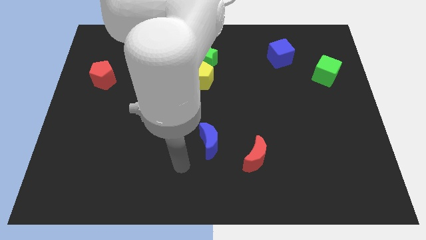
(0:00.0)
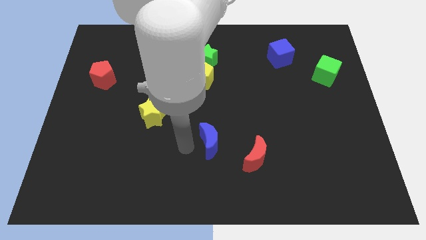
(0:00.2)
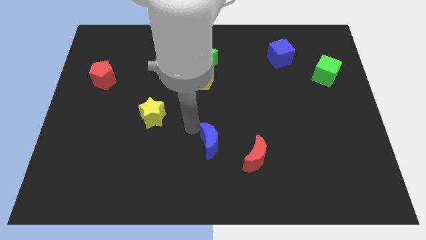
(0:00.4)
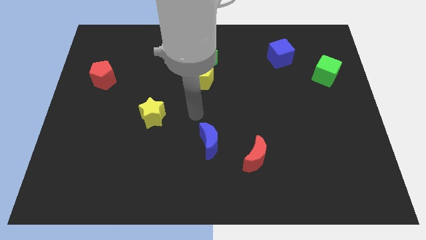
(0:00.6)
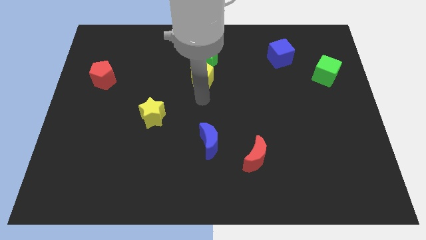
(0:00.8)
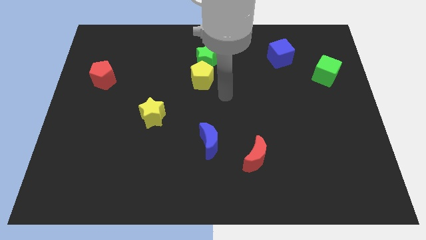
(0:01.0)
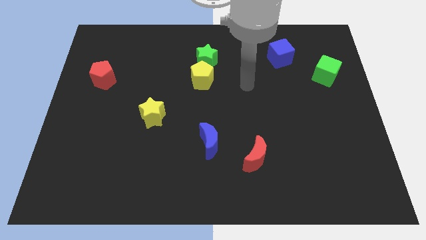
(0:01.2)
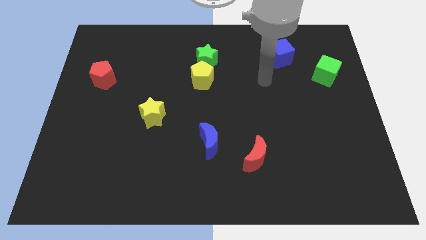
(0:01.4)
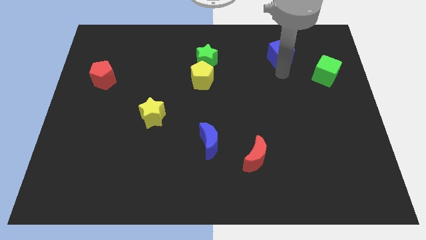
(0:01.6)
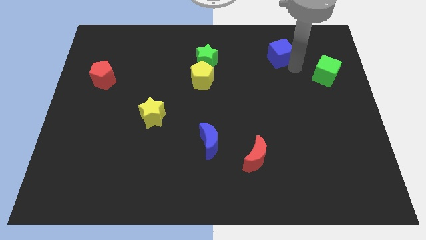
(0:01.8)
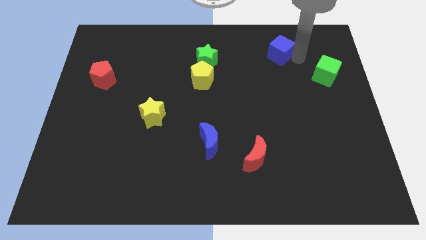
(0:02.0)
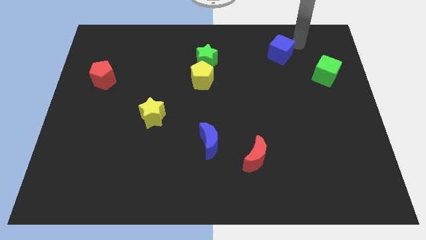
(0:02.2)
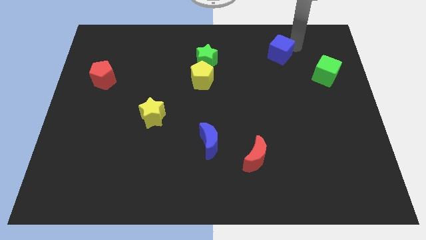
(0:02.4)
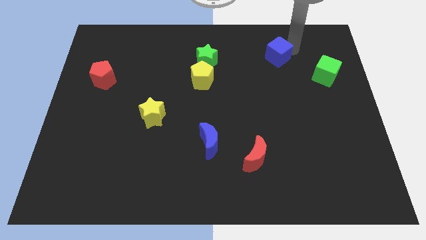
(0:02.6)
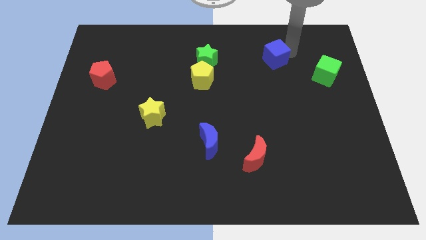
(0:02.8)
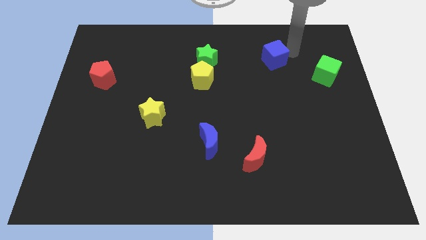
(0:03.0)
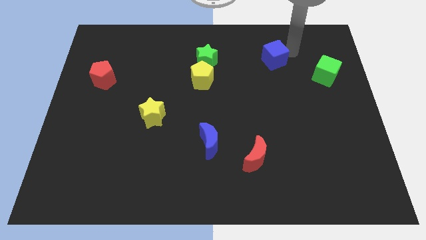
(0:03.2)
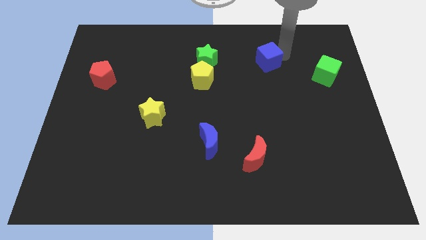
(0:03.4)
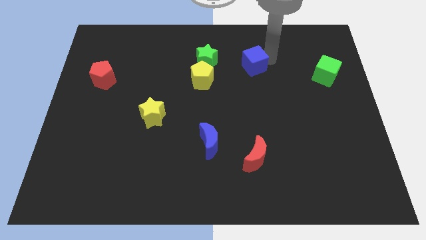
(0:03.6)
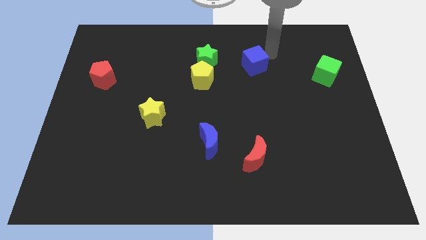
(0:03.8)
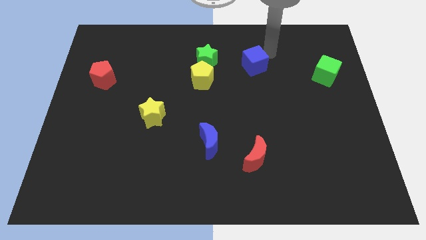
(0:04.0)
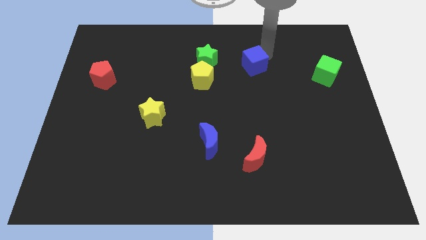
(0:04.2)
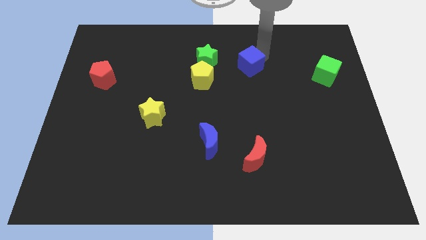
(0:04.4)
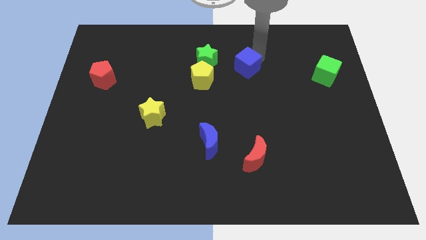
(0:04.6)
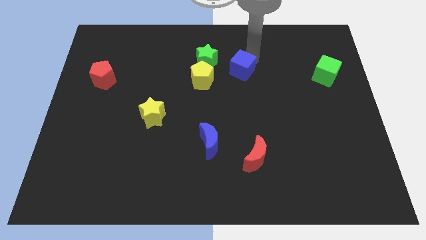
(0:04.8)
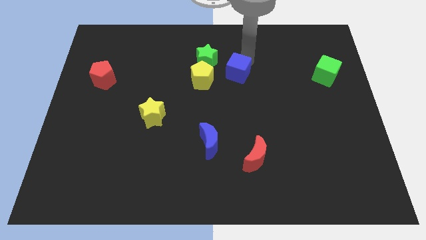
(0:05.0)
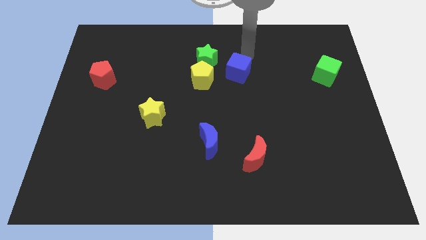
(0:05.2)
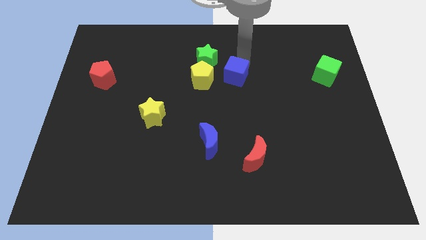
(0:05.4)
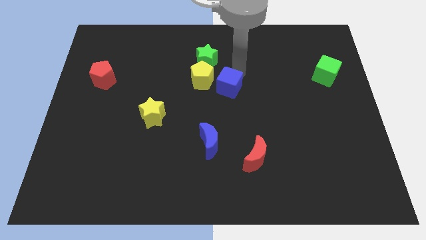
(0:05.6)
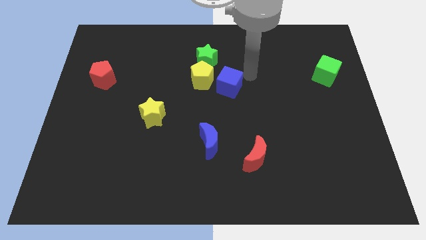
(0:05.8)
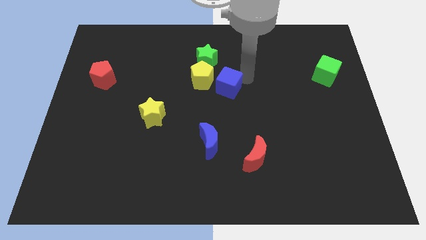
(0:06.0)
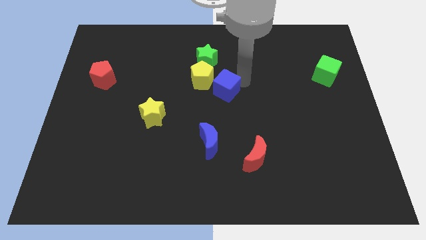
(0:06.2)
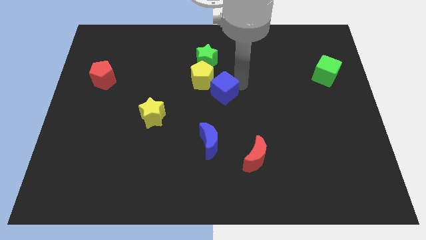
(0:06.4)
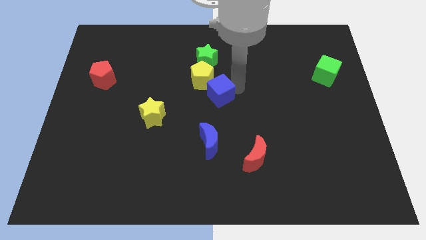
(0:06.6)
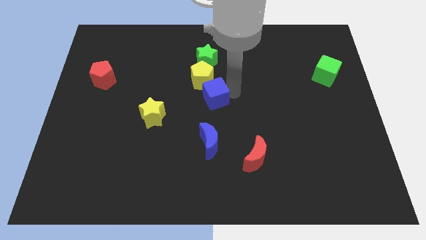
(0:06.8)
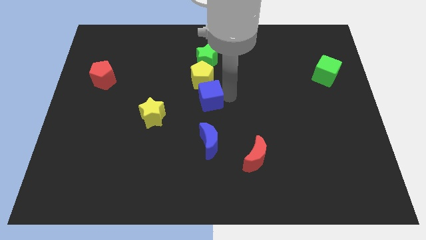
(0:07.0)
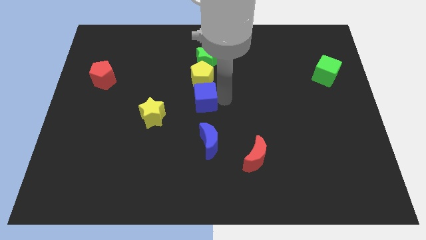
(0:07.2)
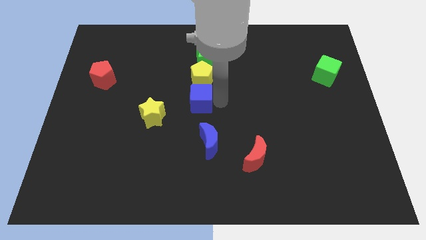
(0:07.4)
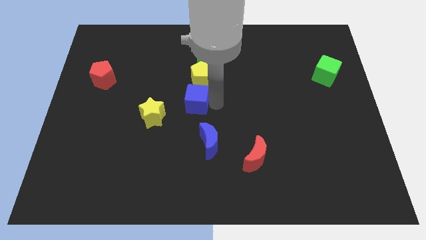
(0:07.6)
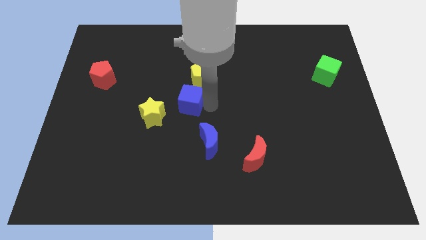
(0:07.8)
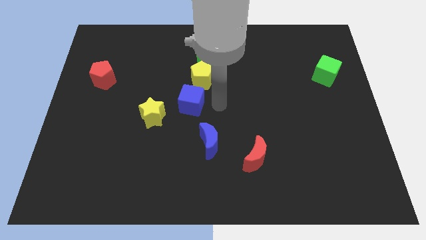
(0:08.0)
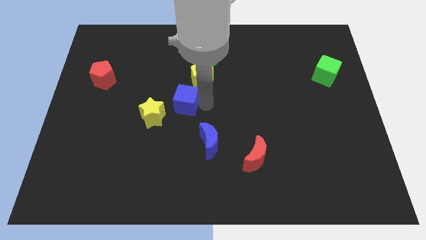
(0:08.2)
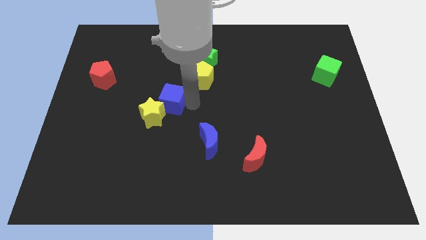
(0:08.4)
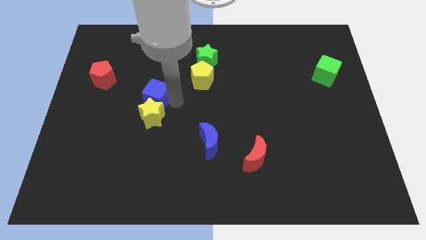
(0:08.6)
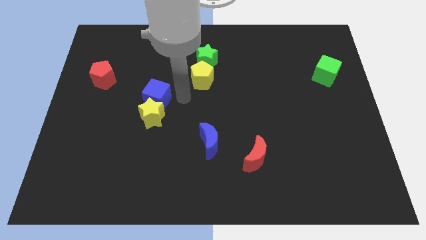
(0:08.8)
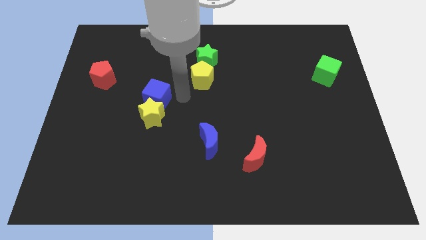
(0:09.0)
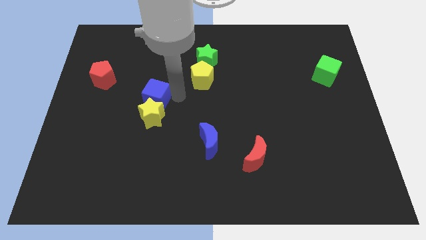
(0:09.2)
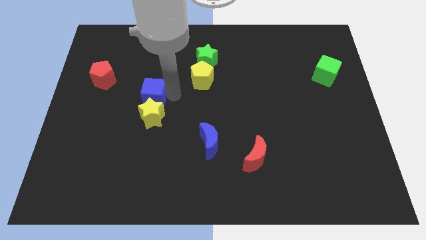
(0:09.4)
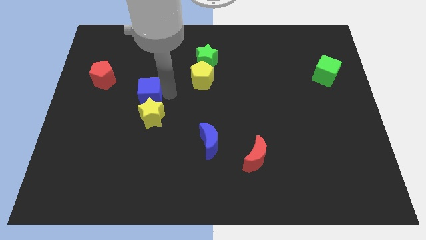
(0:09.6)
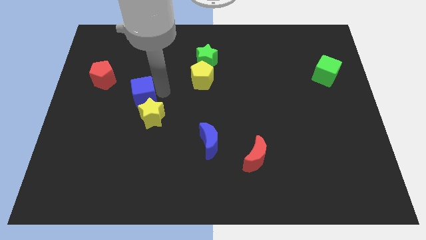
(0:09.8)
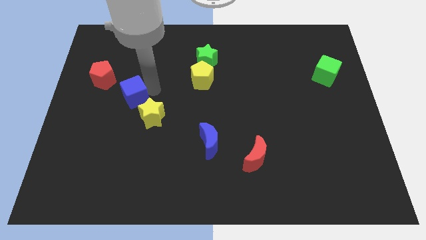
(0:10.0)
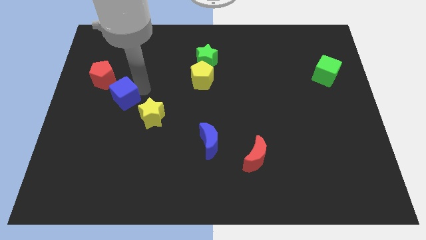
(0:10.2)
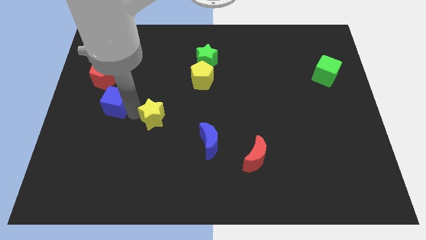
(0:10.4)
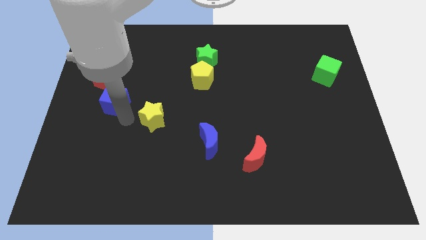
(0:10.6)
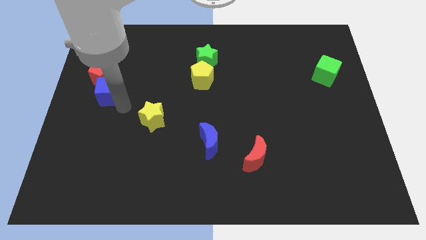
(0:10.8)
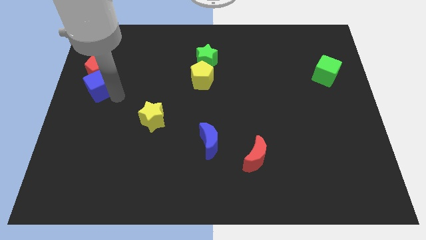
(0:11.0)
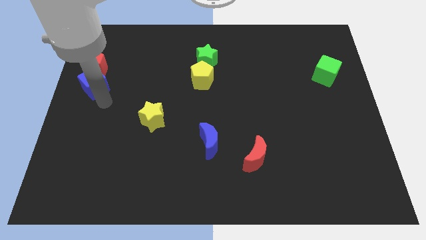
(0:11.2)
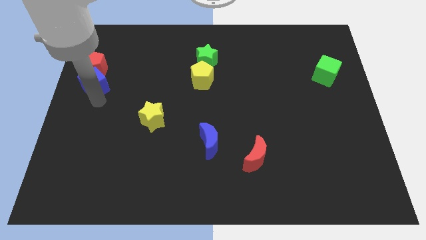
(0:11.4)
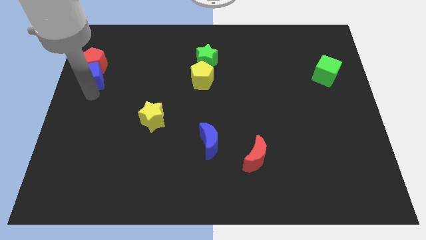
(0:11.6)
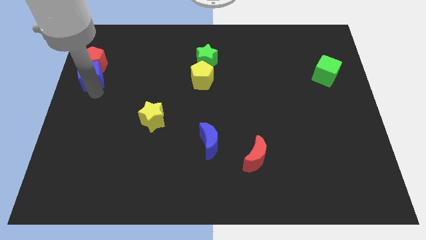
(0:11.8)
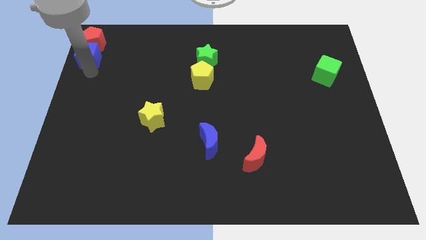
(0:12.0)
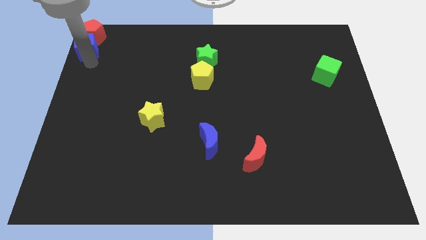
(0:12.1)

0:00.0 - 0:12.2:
push the blue cube to the top left of the board
